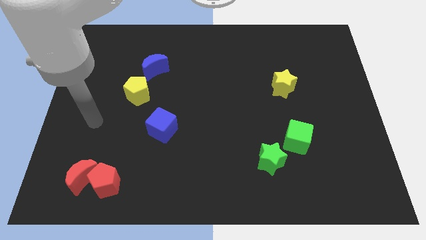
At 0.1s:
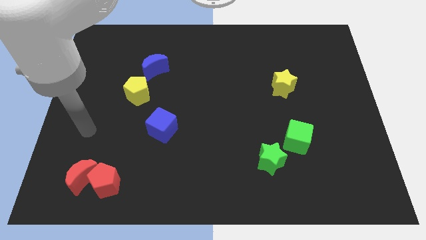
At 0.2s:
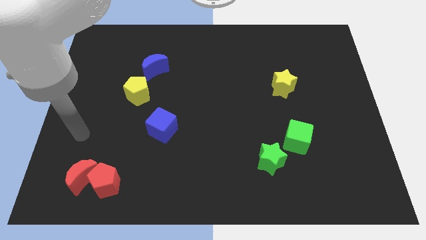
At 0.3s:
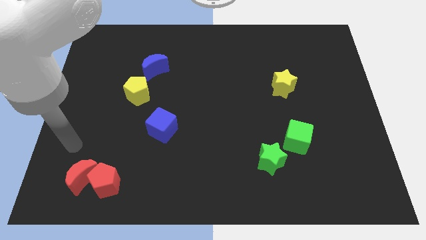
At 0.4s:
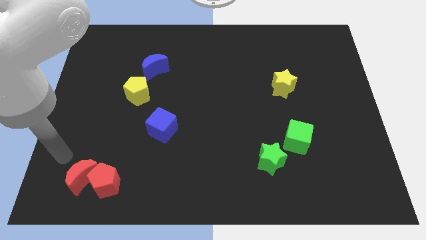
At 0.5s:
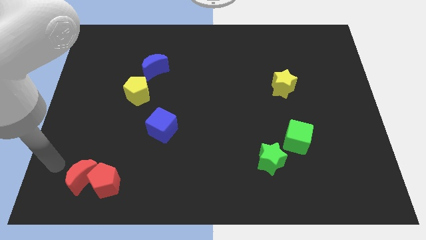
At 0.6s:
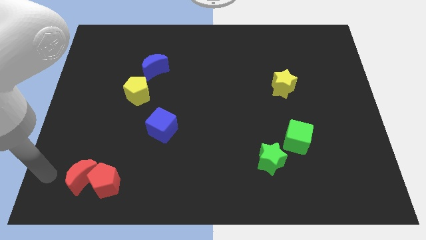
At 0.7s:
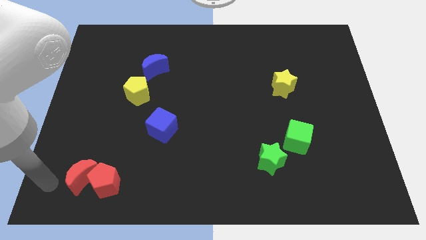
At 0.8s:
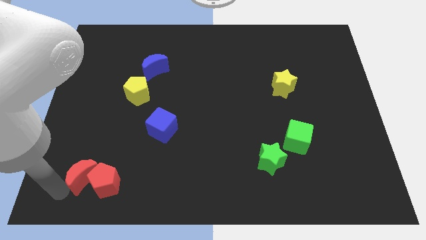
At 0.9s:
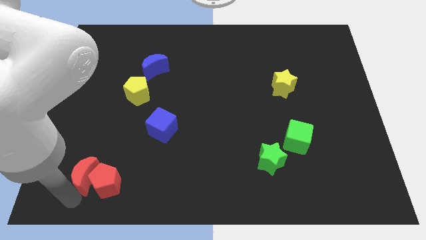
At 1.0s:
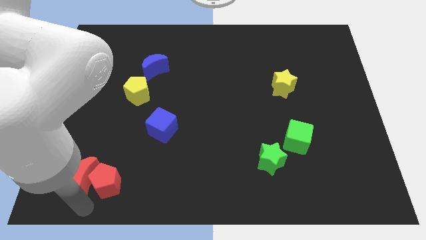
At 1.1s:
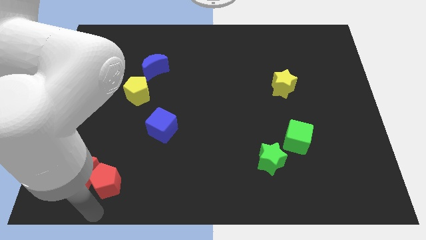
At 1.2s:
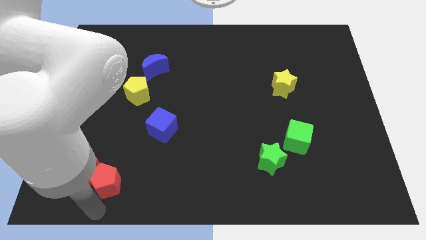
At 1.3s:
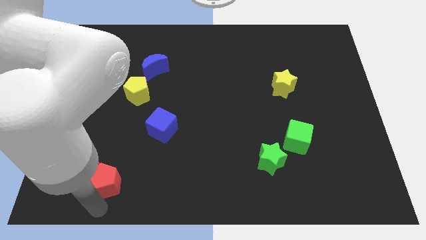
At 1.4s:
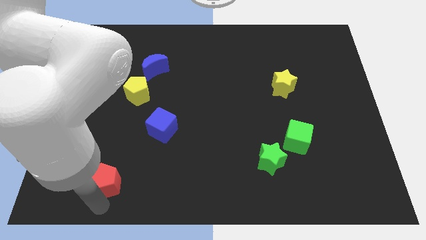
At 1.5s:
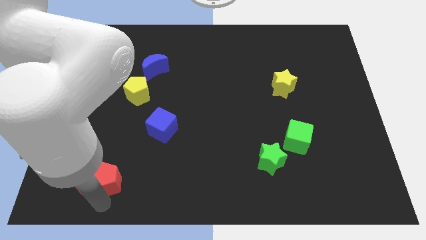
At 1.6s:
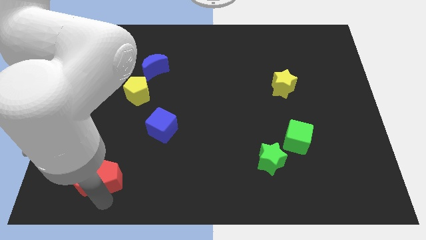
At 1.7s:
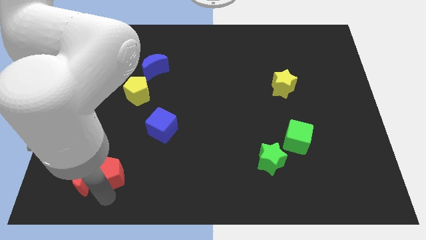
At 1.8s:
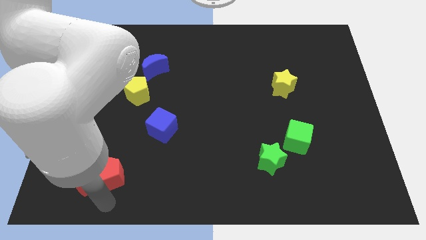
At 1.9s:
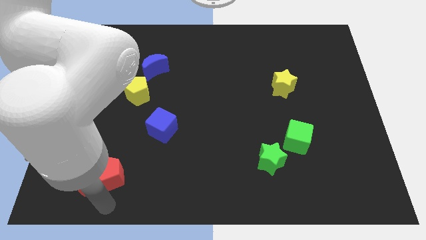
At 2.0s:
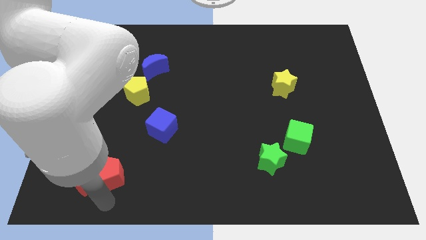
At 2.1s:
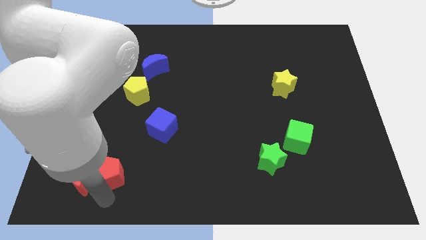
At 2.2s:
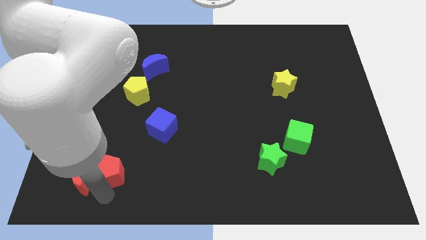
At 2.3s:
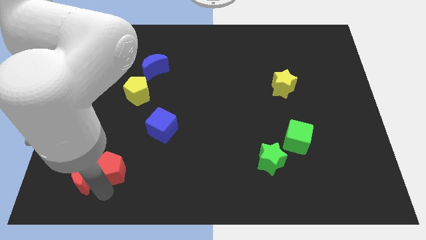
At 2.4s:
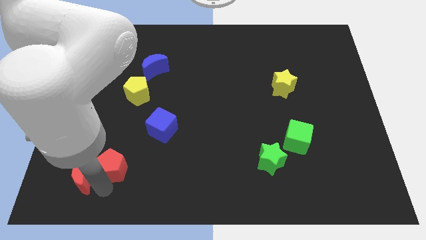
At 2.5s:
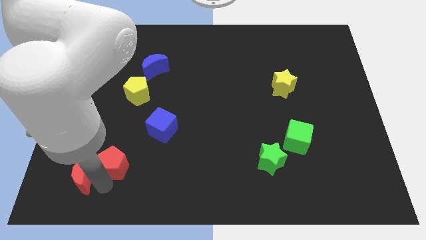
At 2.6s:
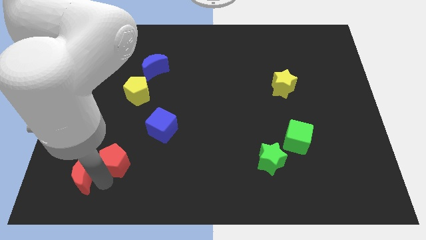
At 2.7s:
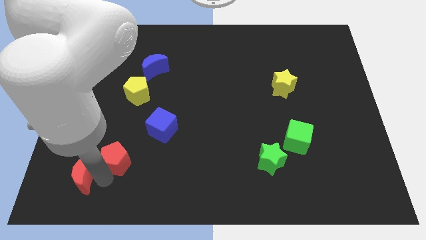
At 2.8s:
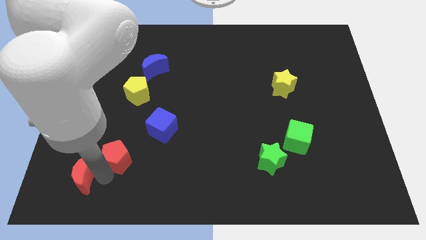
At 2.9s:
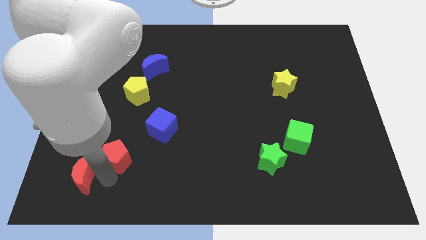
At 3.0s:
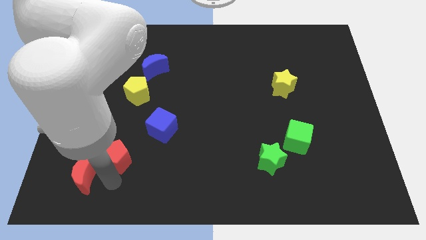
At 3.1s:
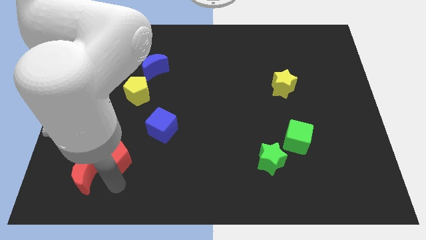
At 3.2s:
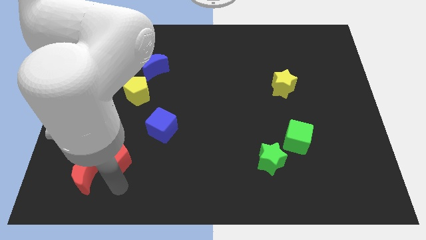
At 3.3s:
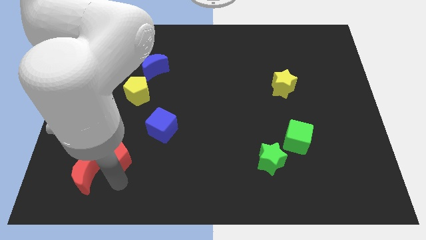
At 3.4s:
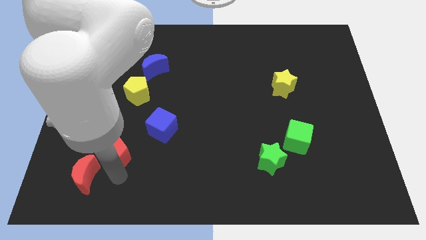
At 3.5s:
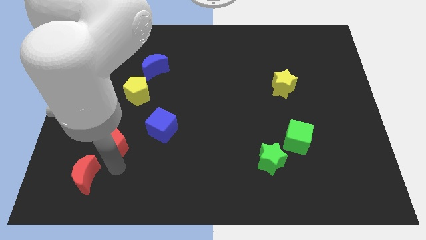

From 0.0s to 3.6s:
slightly move the red pentagon upwards

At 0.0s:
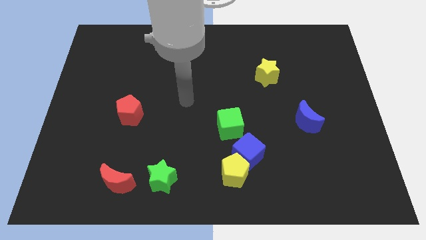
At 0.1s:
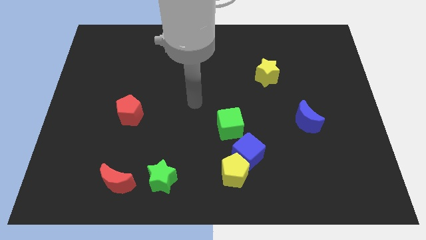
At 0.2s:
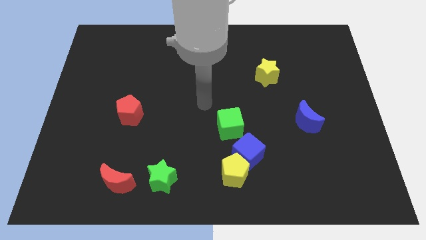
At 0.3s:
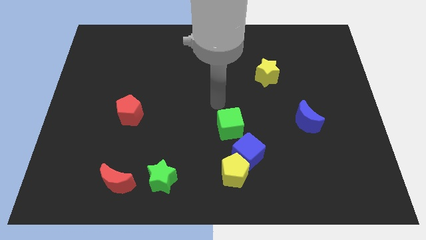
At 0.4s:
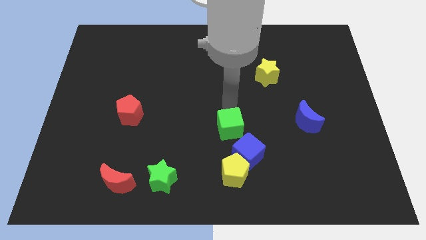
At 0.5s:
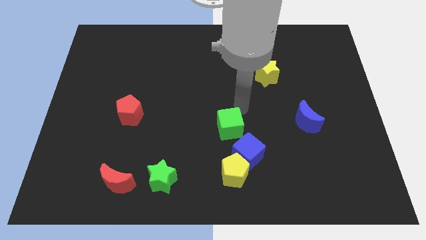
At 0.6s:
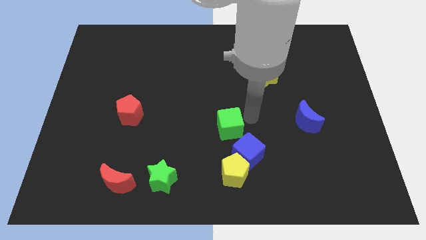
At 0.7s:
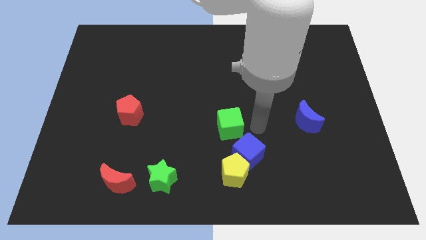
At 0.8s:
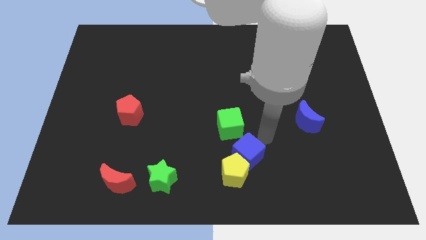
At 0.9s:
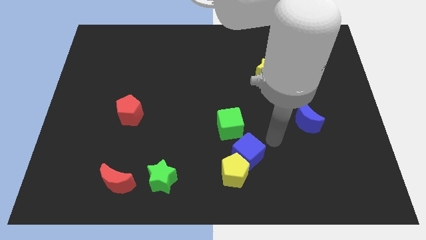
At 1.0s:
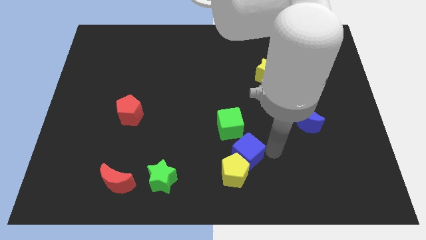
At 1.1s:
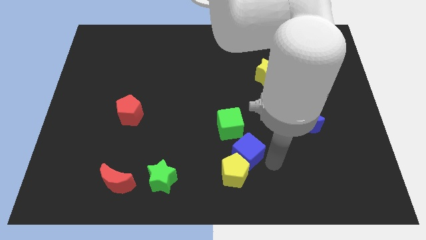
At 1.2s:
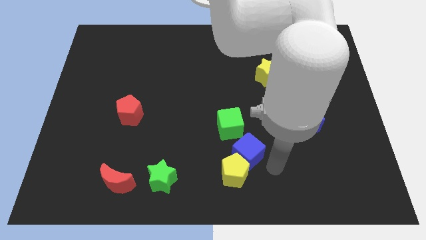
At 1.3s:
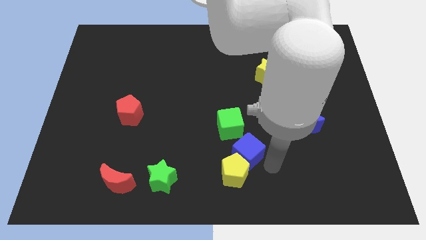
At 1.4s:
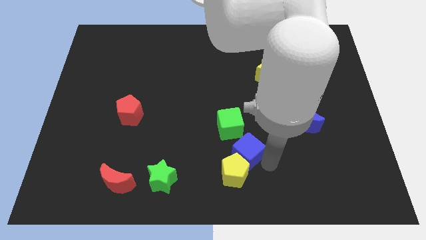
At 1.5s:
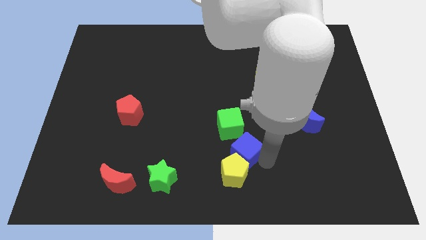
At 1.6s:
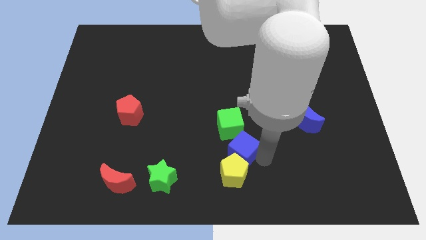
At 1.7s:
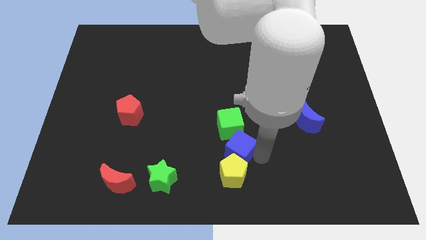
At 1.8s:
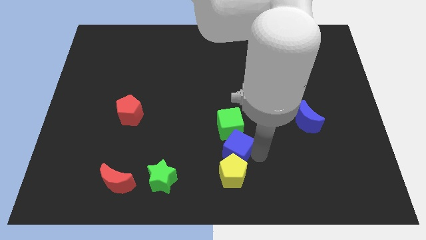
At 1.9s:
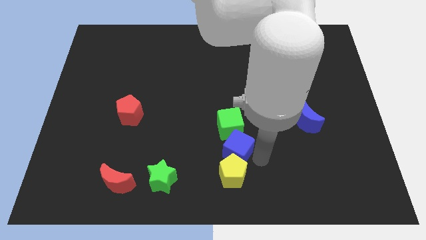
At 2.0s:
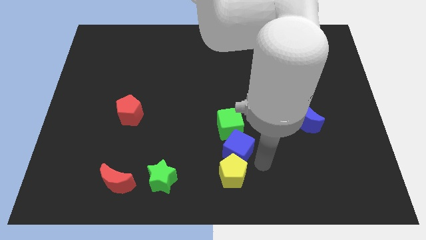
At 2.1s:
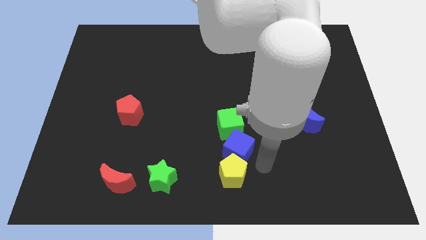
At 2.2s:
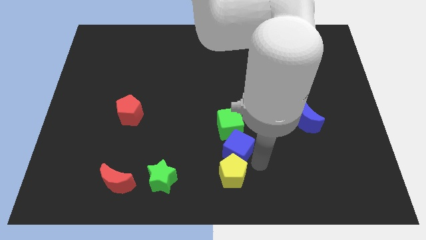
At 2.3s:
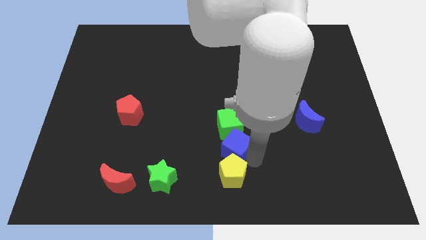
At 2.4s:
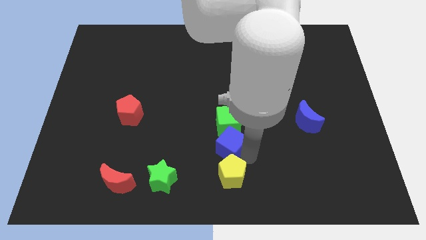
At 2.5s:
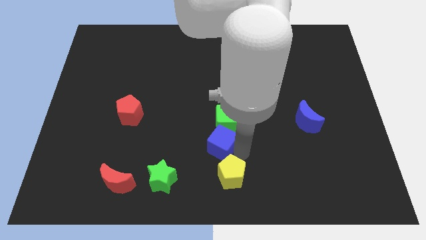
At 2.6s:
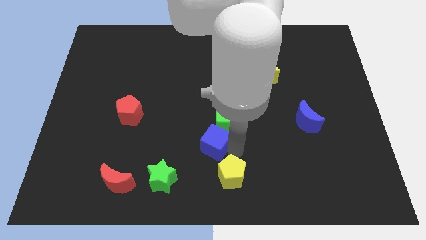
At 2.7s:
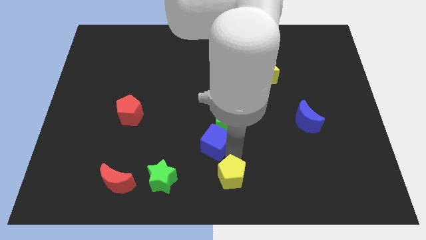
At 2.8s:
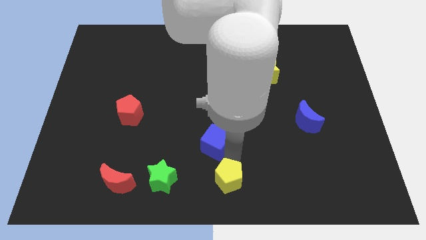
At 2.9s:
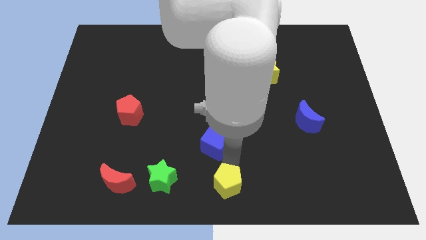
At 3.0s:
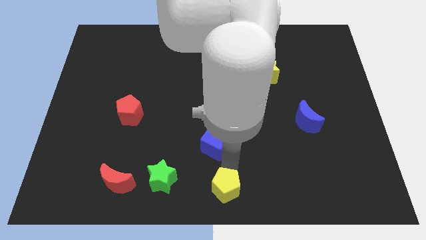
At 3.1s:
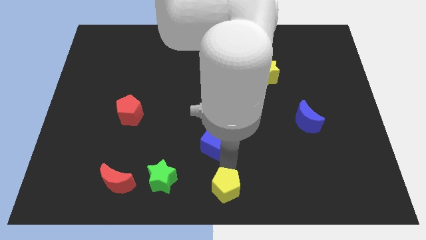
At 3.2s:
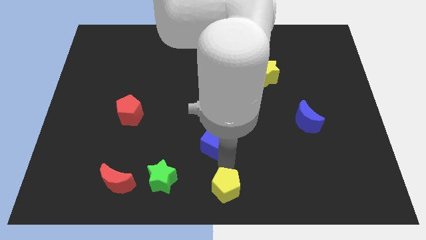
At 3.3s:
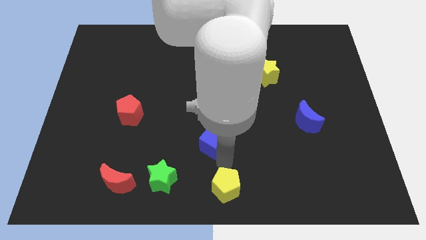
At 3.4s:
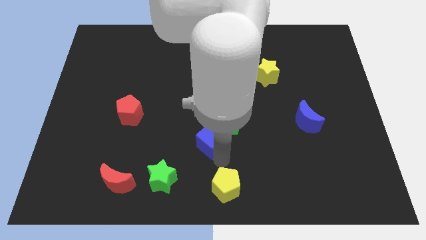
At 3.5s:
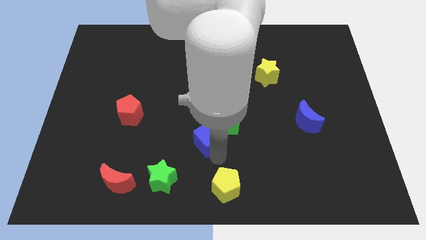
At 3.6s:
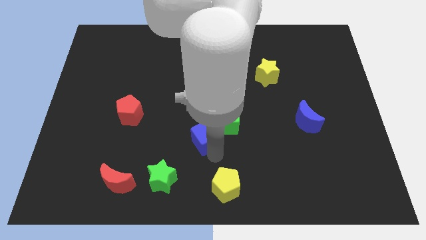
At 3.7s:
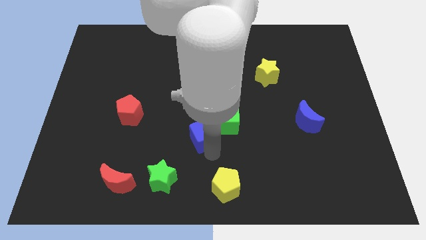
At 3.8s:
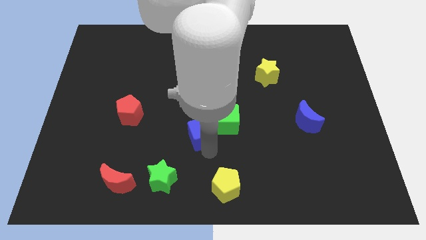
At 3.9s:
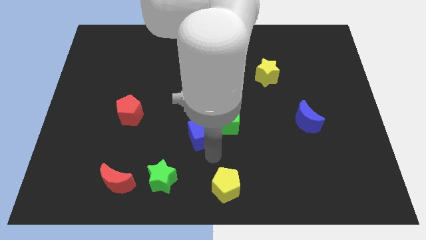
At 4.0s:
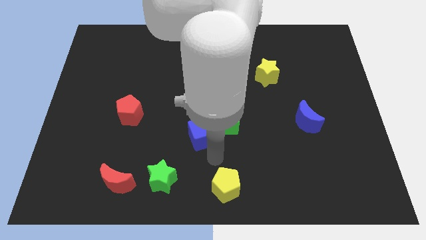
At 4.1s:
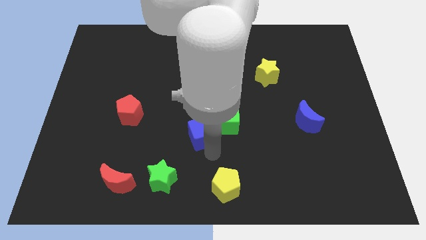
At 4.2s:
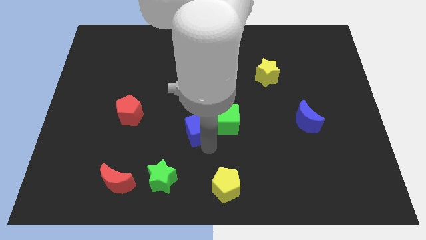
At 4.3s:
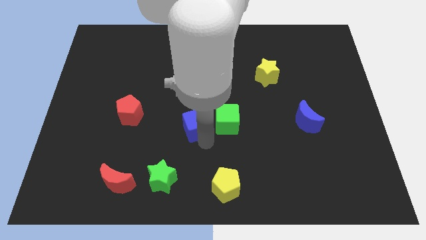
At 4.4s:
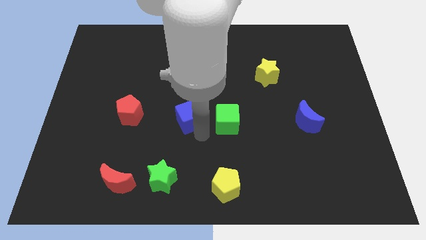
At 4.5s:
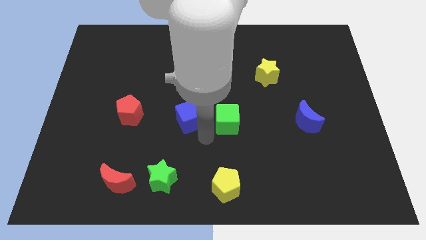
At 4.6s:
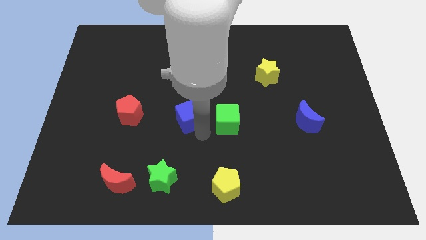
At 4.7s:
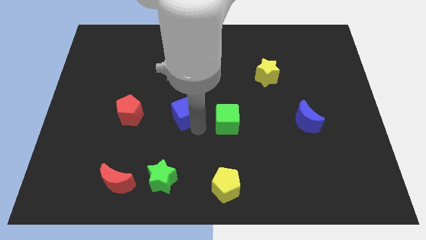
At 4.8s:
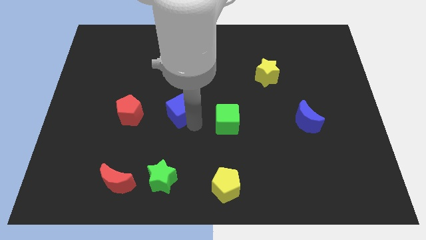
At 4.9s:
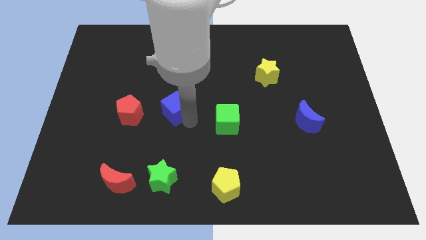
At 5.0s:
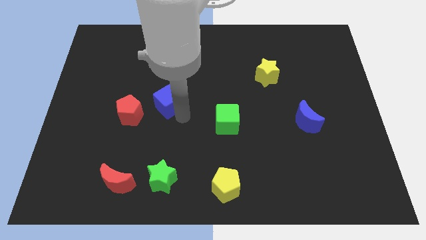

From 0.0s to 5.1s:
push the blue cube upwards and to the left
